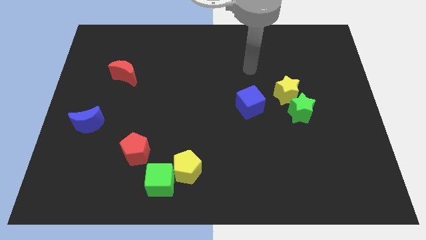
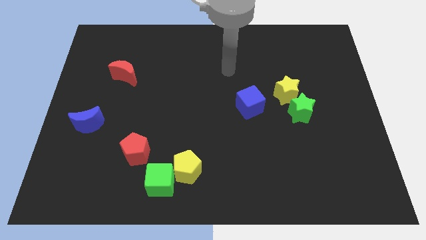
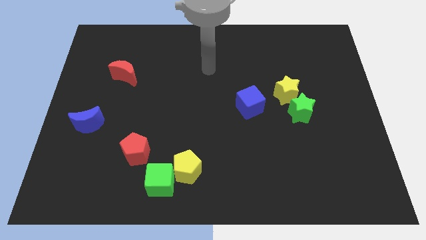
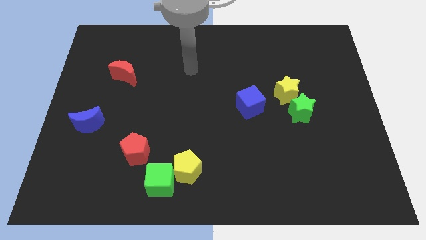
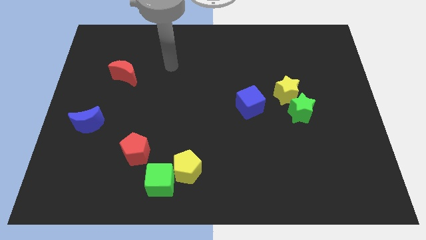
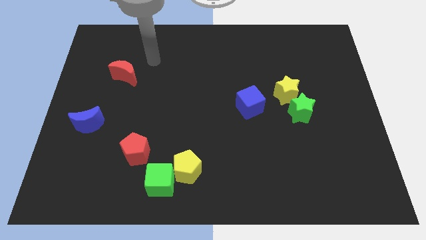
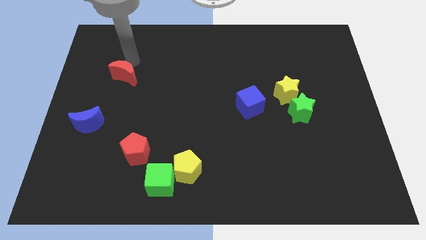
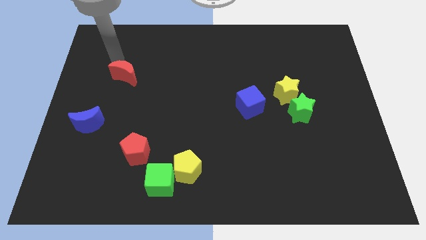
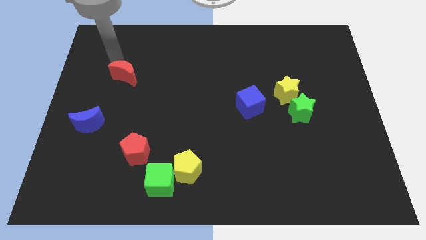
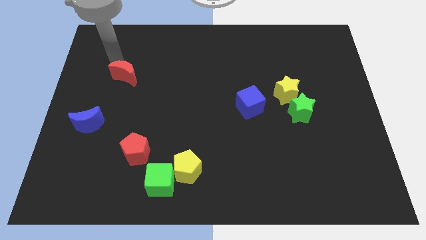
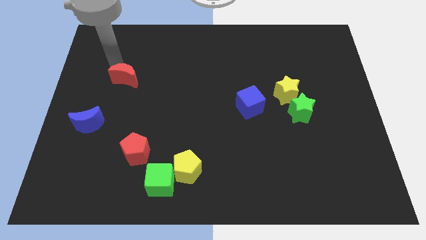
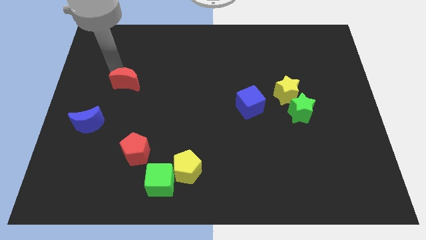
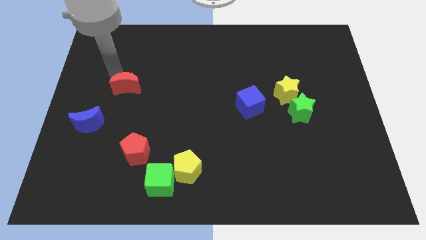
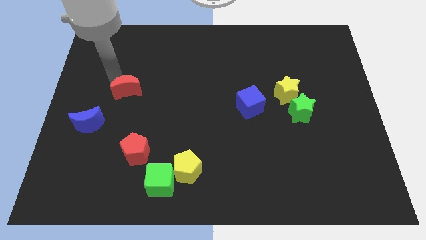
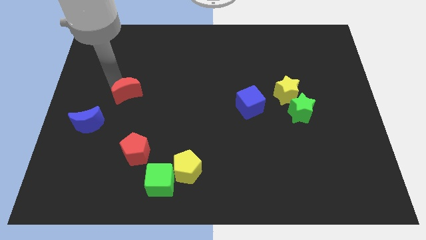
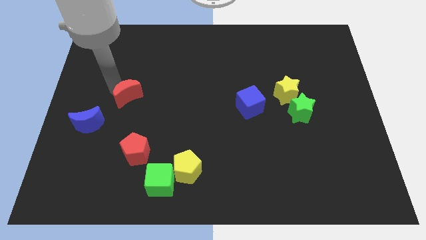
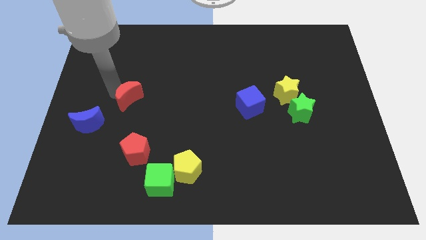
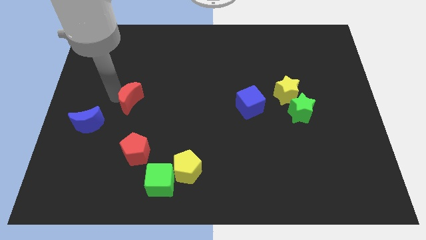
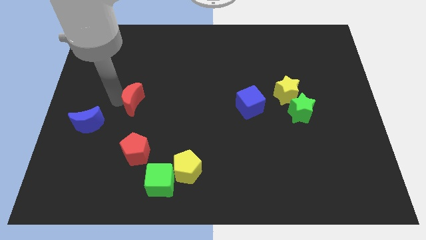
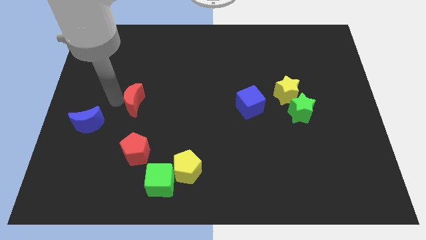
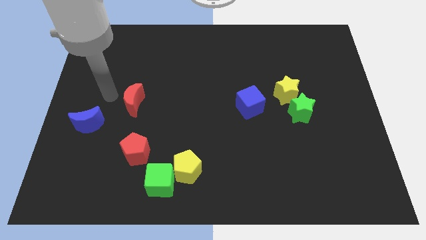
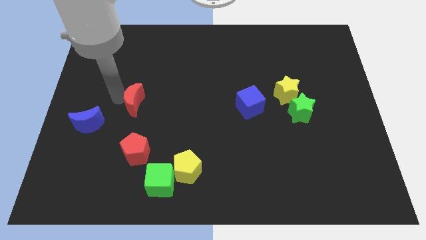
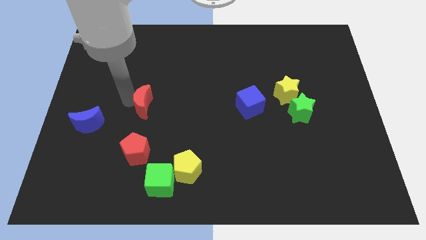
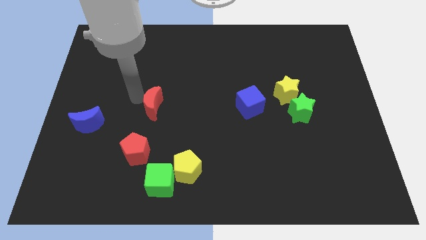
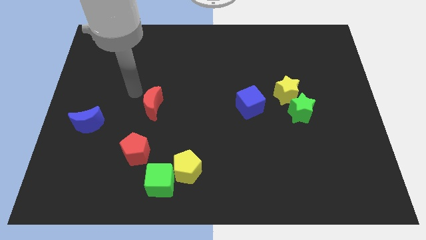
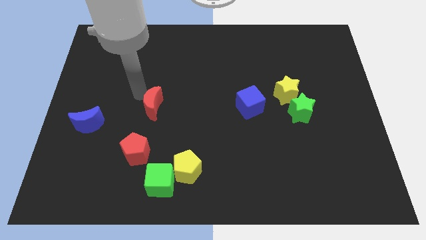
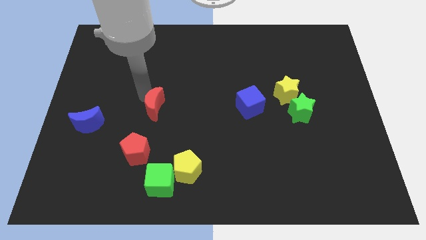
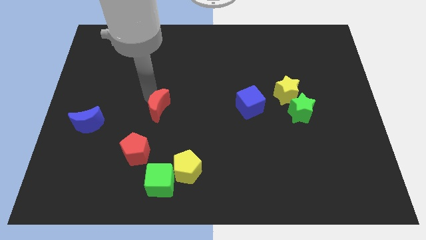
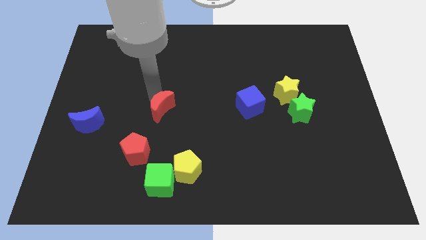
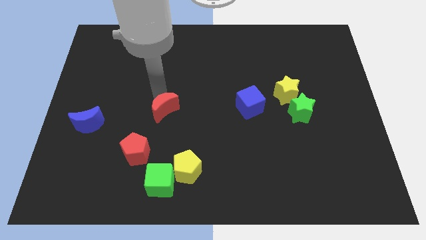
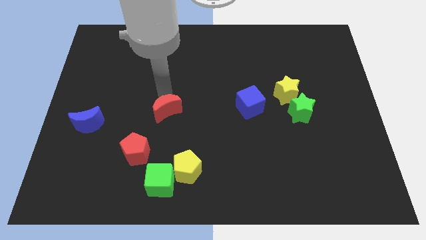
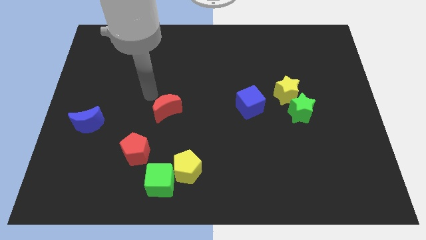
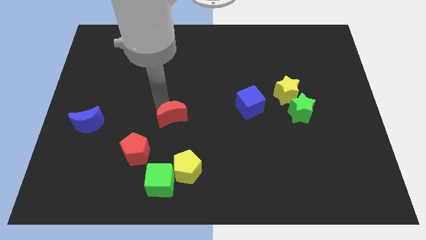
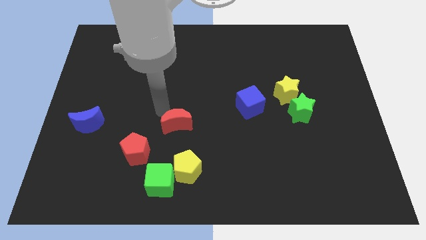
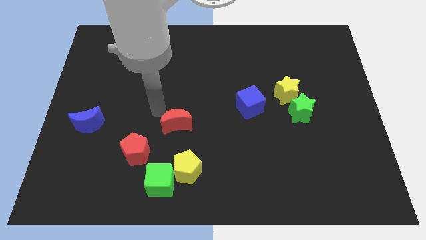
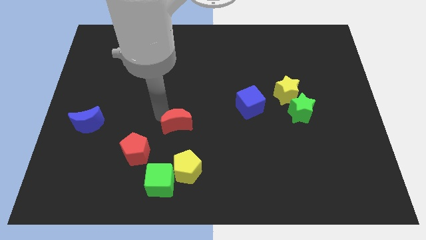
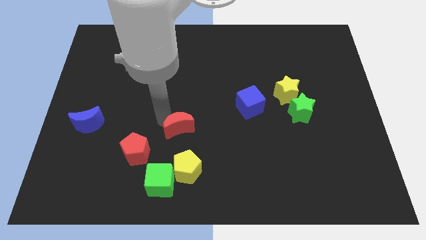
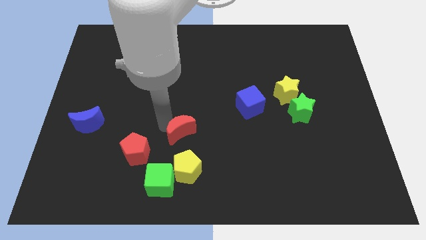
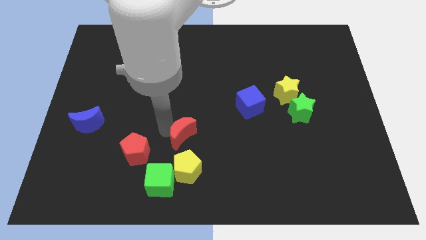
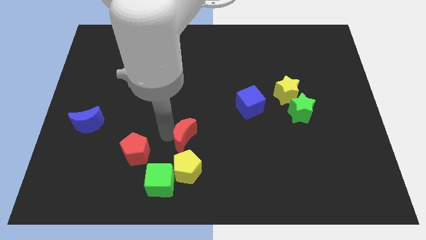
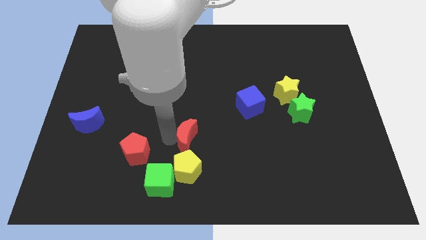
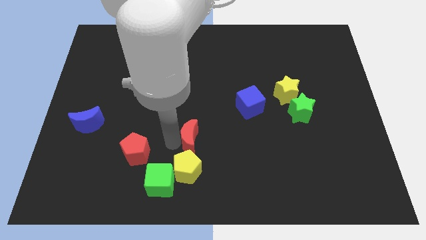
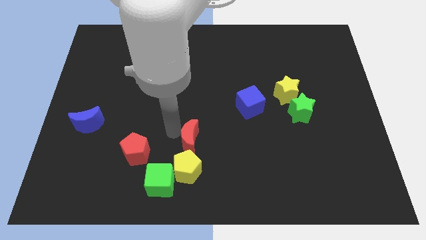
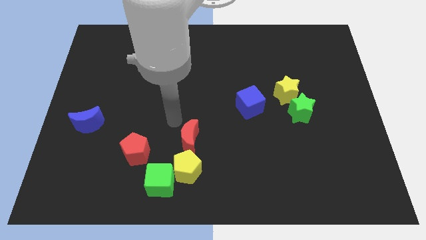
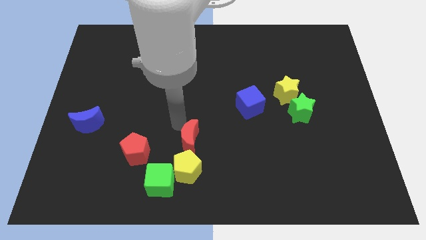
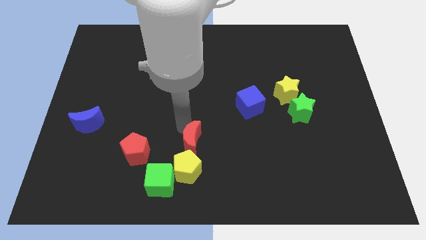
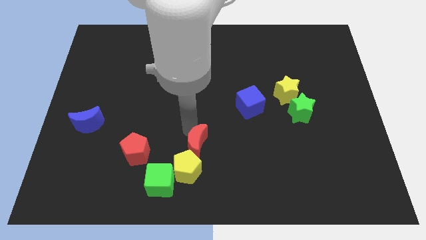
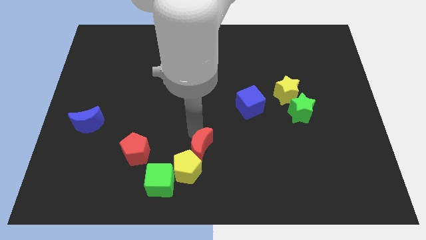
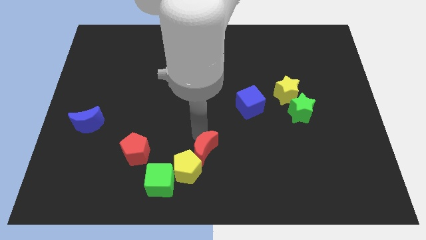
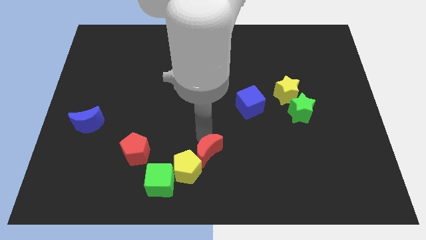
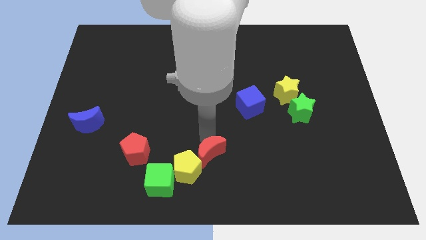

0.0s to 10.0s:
put the red moon to the bottom side

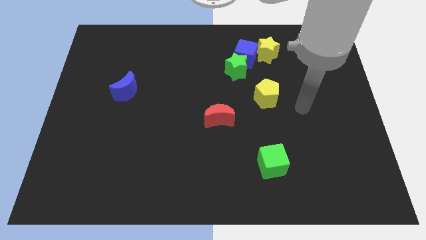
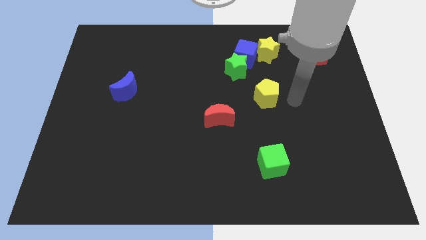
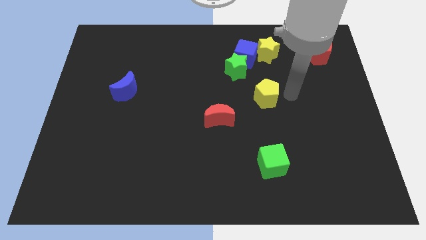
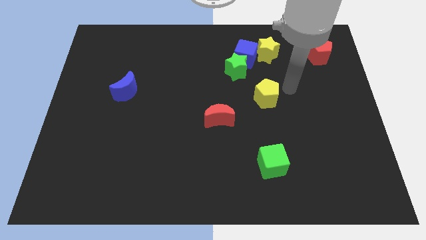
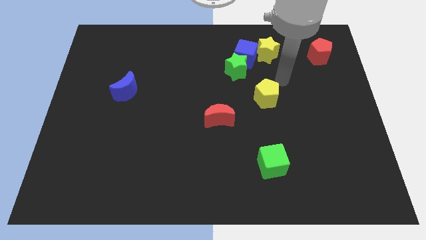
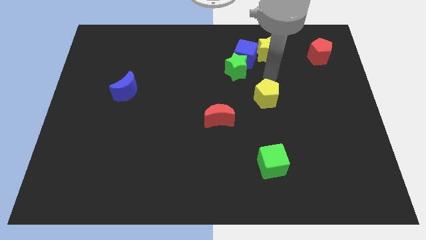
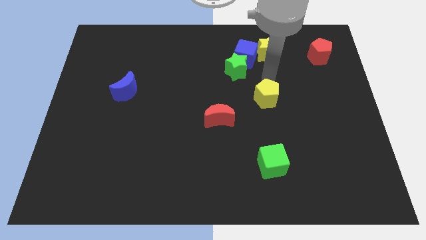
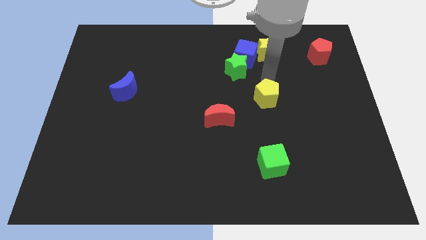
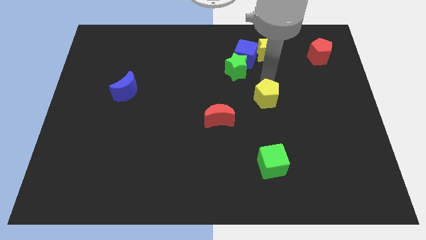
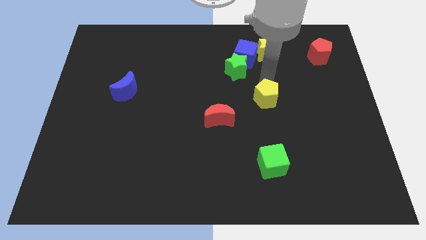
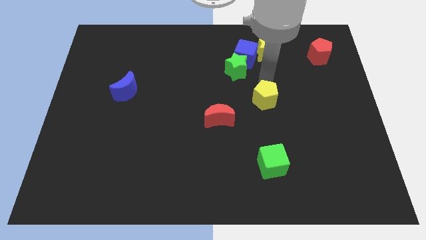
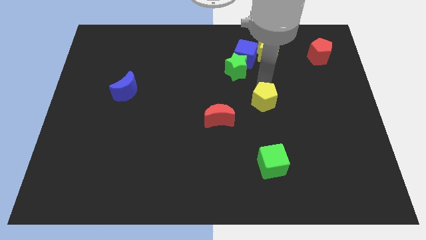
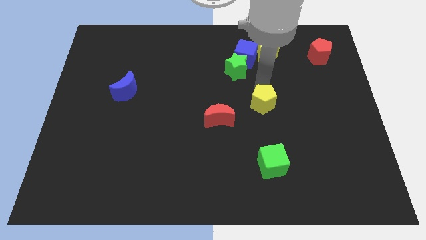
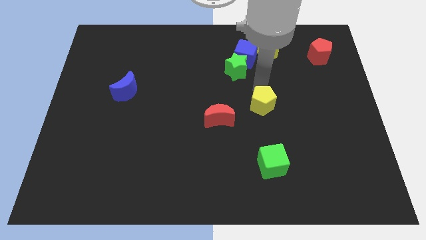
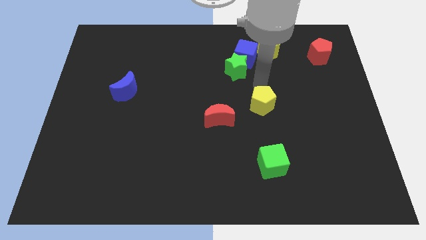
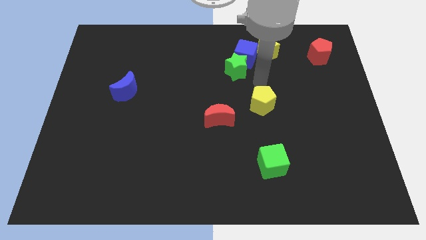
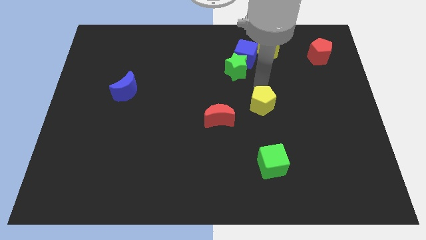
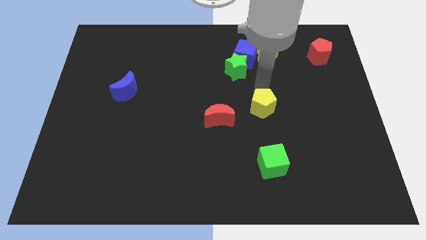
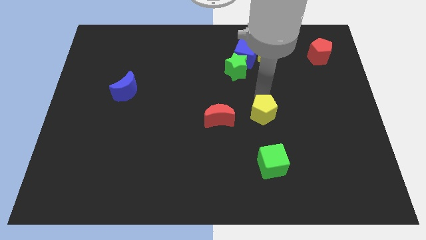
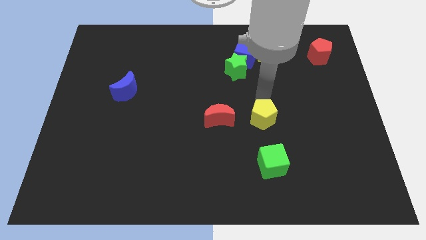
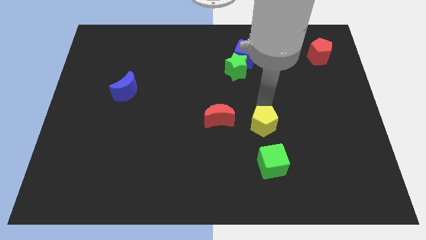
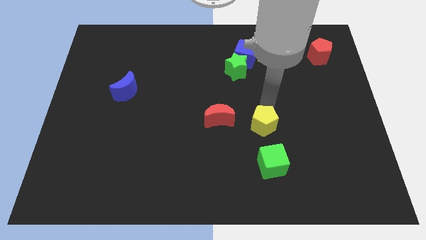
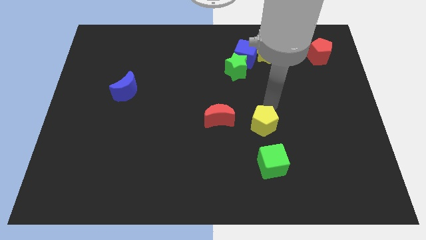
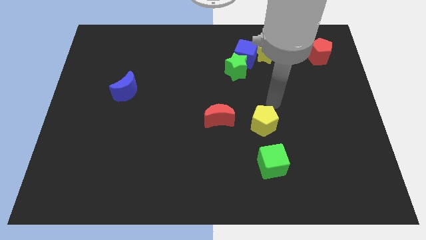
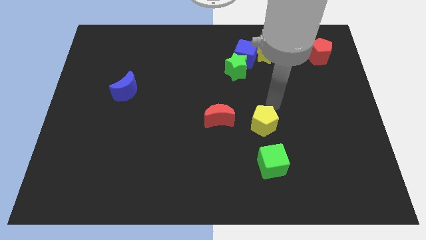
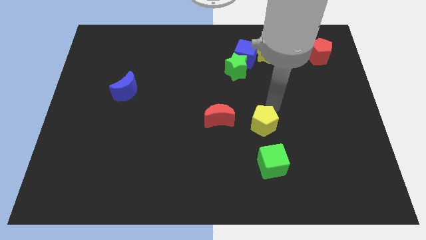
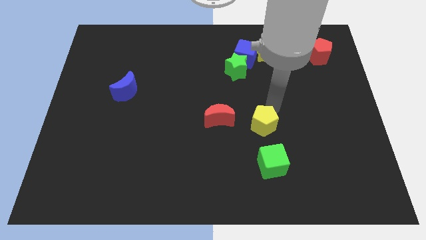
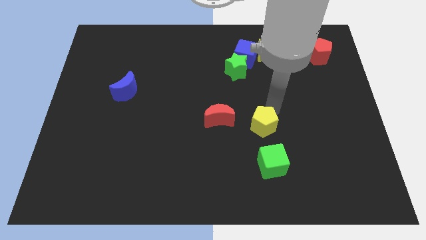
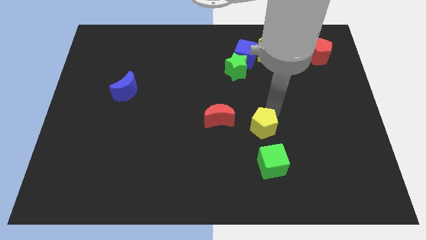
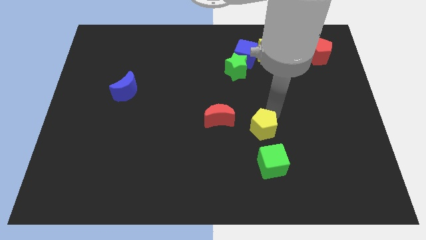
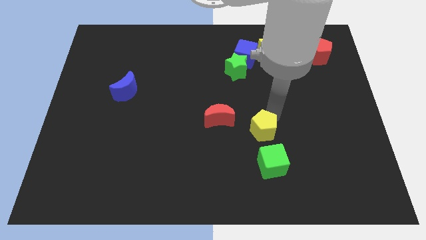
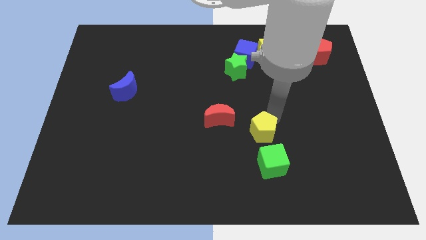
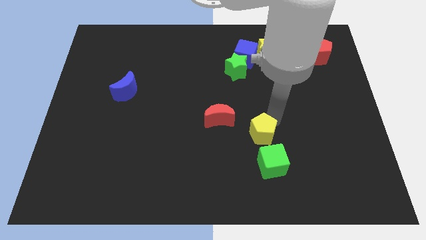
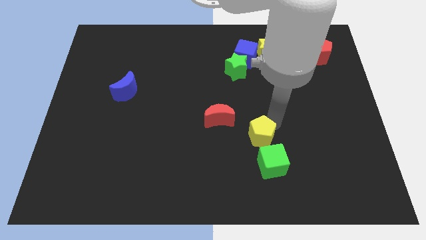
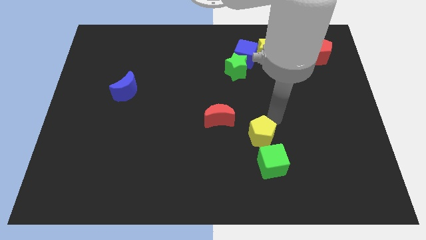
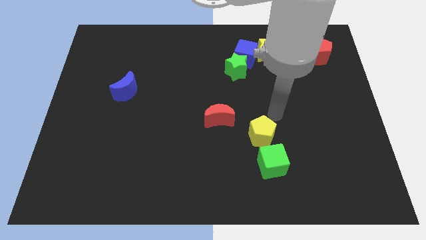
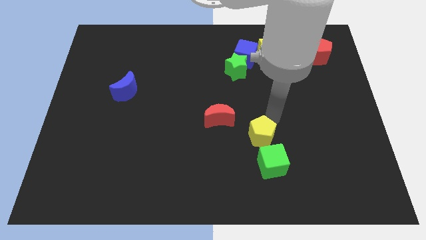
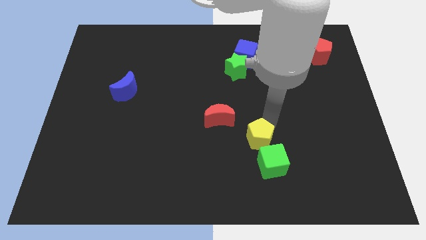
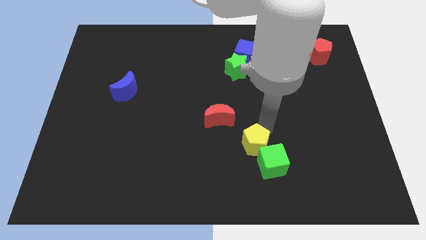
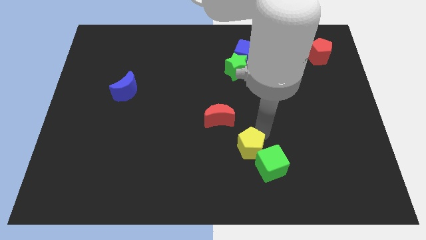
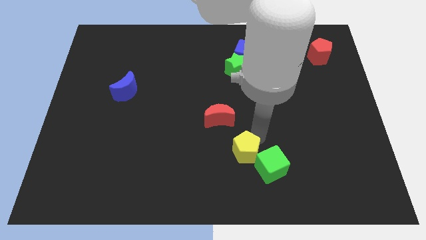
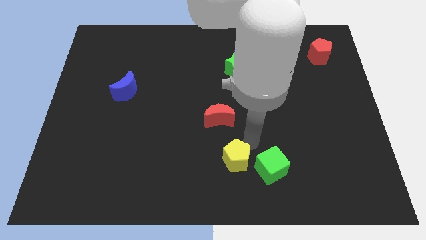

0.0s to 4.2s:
push the yellow pentagon to the bottom side
